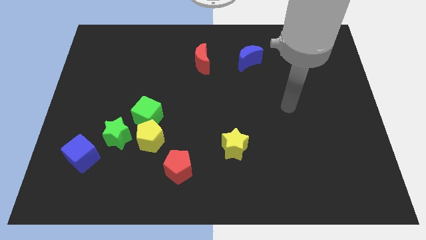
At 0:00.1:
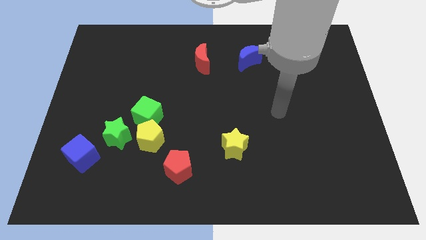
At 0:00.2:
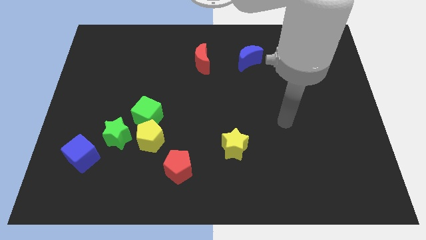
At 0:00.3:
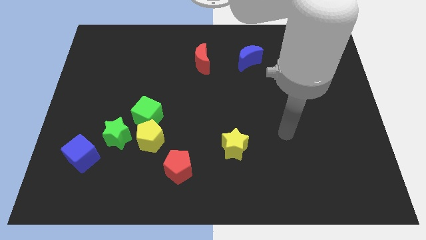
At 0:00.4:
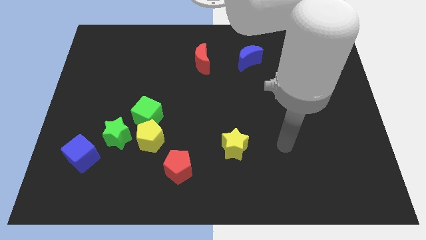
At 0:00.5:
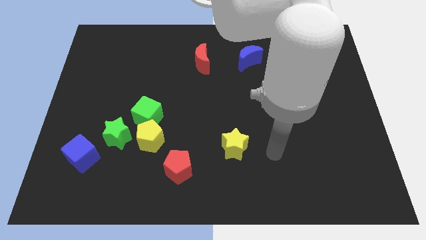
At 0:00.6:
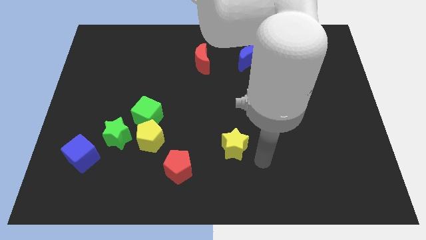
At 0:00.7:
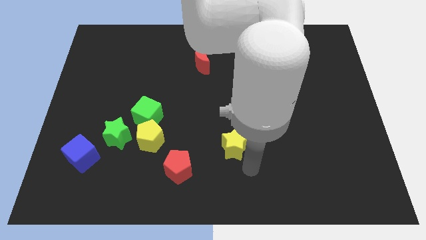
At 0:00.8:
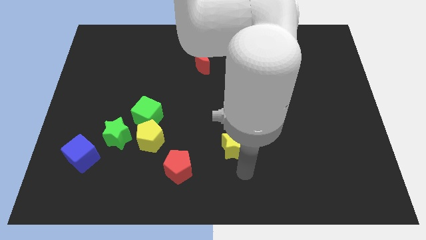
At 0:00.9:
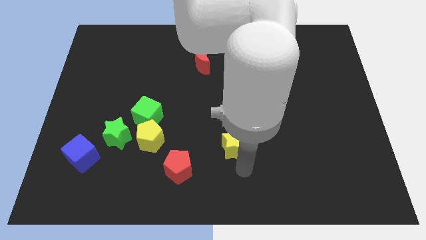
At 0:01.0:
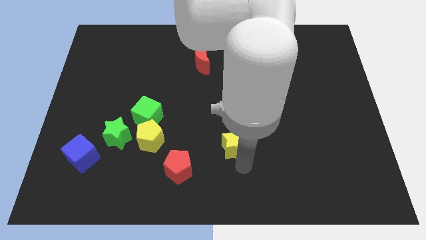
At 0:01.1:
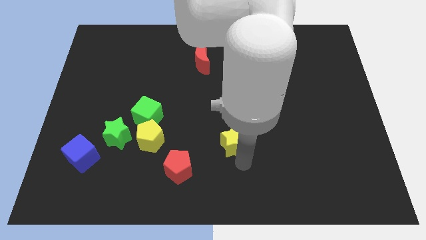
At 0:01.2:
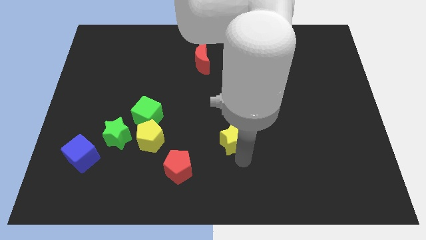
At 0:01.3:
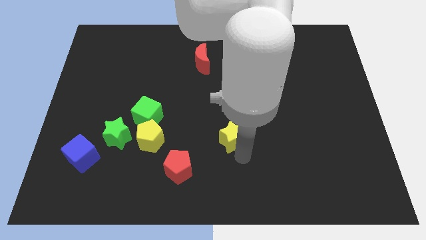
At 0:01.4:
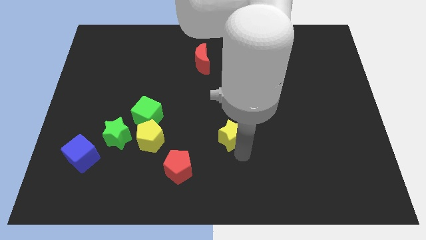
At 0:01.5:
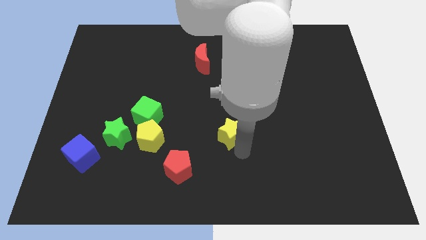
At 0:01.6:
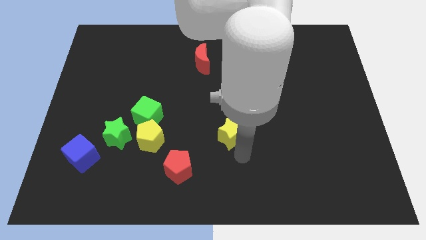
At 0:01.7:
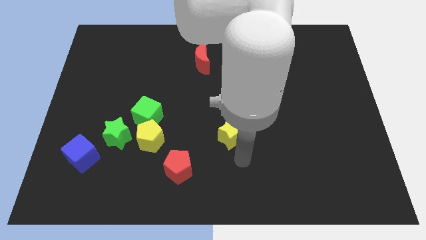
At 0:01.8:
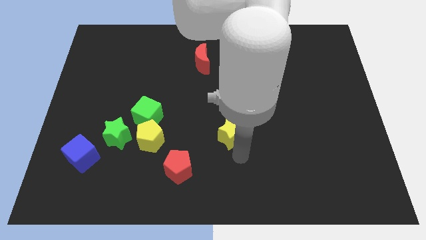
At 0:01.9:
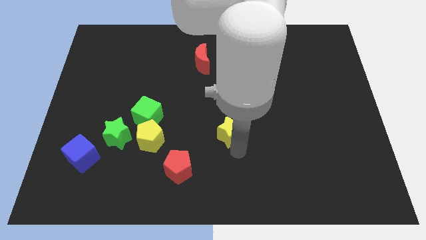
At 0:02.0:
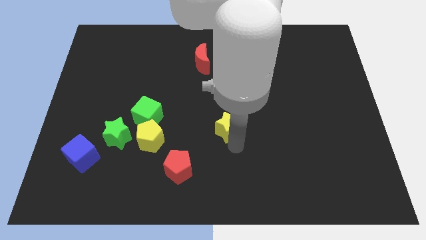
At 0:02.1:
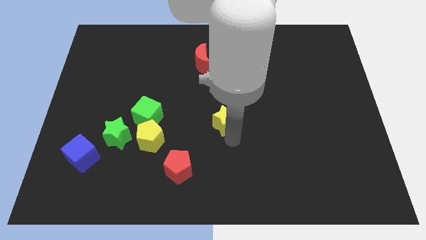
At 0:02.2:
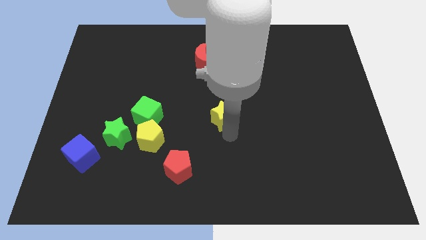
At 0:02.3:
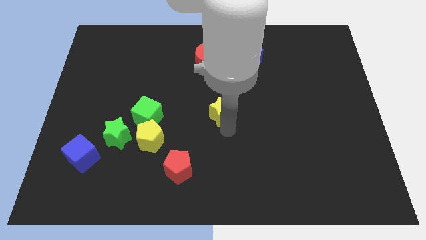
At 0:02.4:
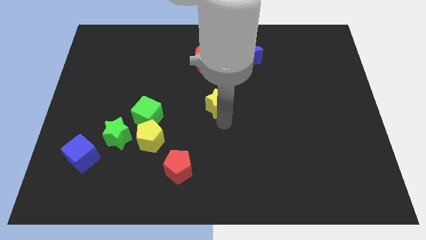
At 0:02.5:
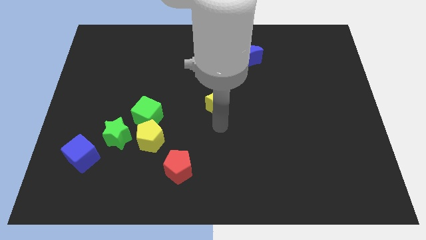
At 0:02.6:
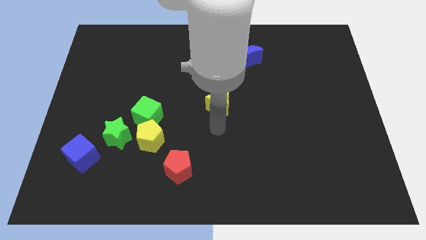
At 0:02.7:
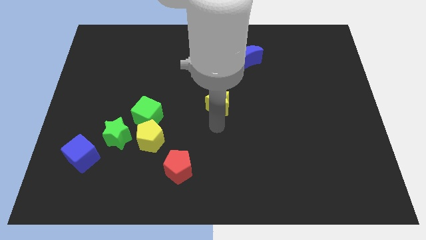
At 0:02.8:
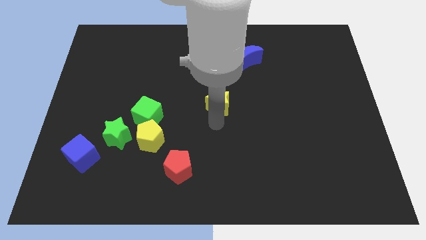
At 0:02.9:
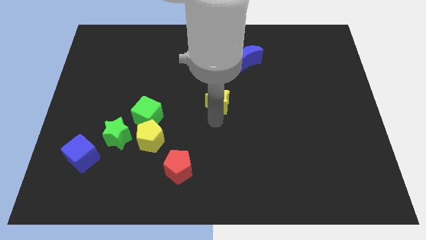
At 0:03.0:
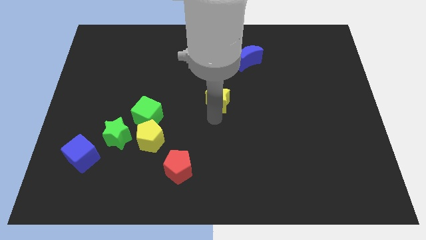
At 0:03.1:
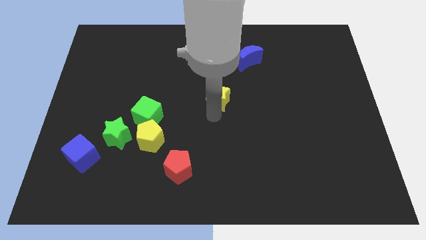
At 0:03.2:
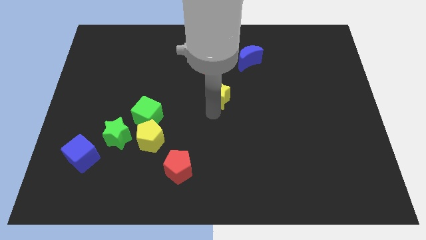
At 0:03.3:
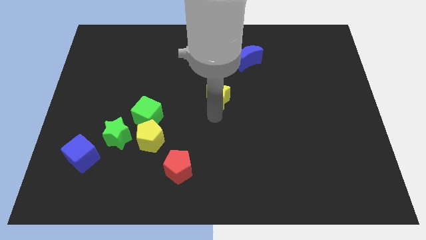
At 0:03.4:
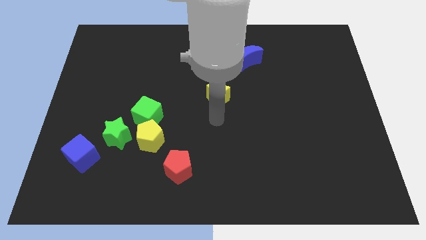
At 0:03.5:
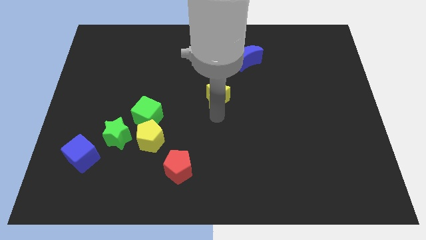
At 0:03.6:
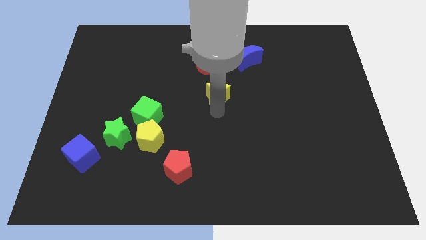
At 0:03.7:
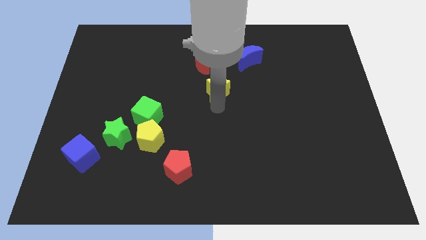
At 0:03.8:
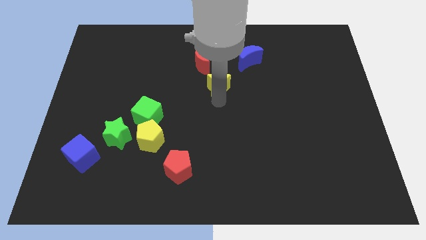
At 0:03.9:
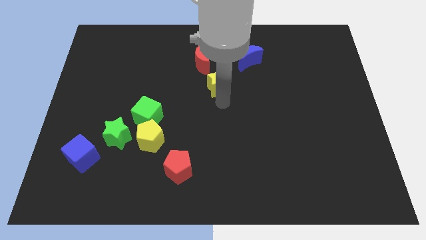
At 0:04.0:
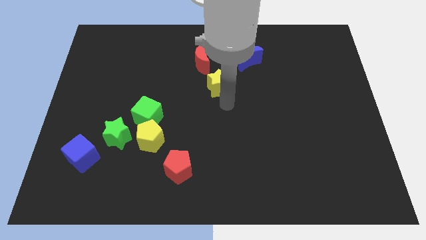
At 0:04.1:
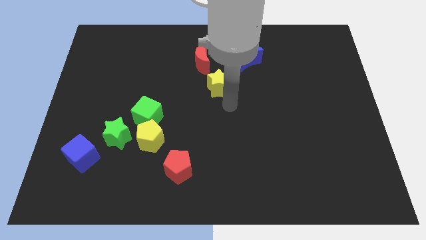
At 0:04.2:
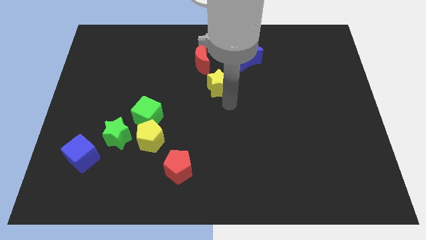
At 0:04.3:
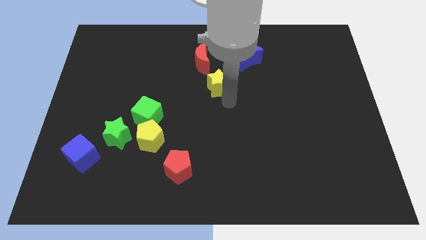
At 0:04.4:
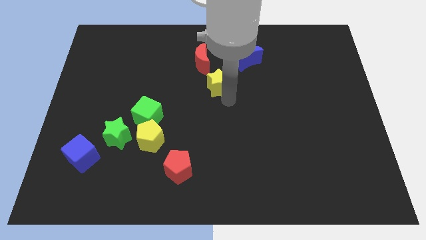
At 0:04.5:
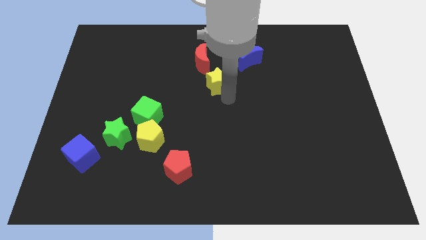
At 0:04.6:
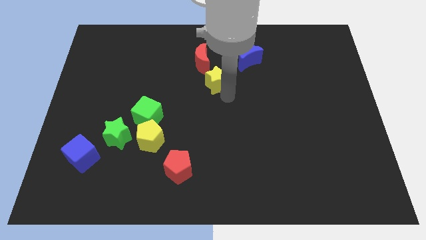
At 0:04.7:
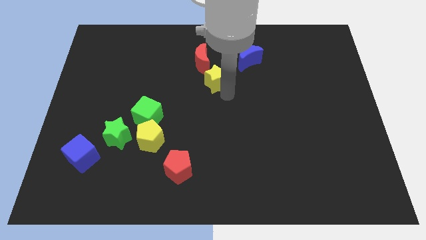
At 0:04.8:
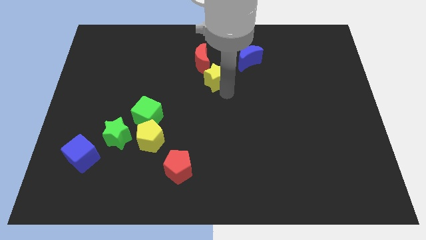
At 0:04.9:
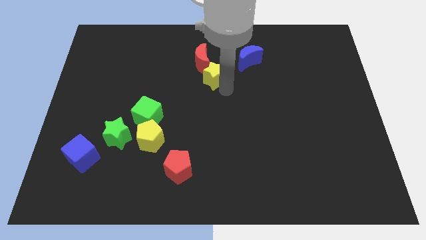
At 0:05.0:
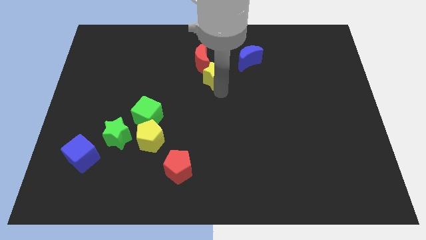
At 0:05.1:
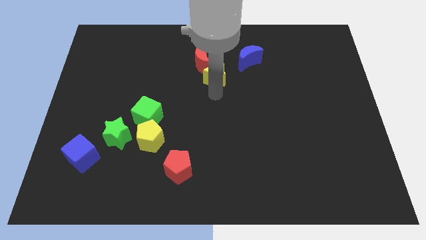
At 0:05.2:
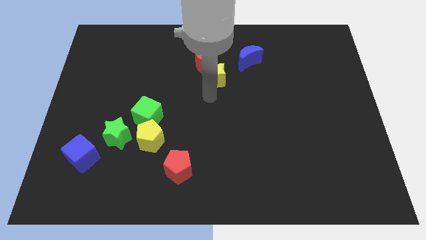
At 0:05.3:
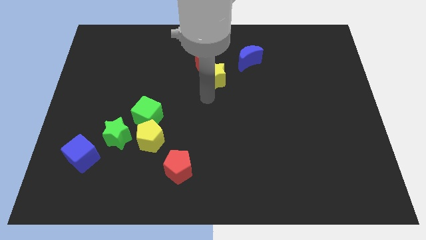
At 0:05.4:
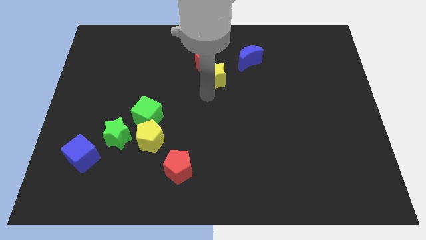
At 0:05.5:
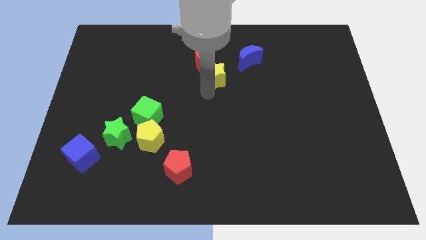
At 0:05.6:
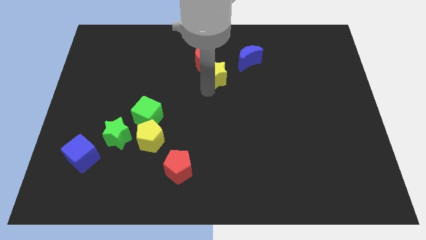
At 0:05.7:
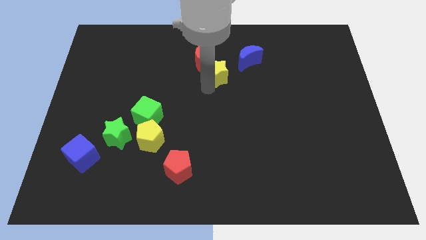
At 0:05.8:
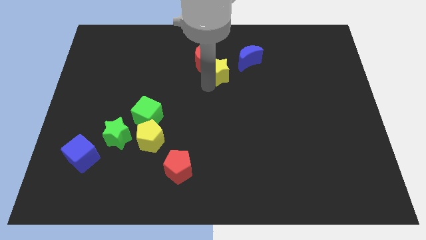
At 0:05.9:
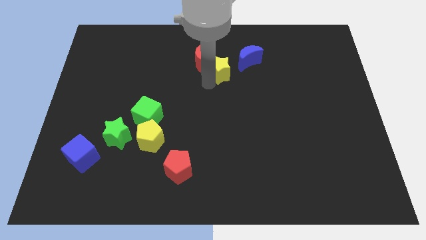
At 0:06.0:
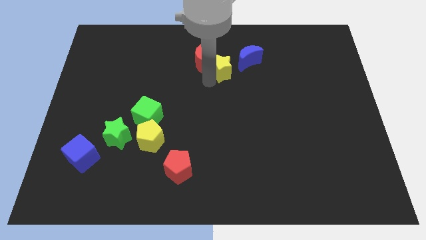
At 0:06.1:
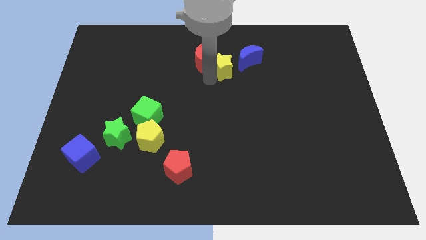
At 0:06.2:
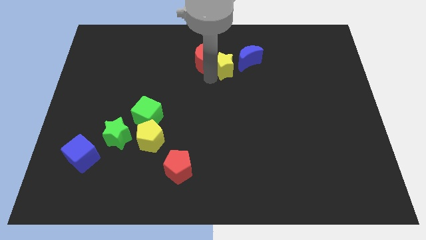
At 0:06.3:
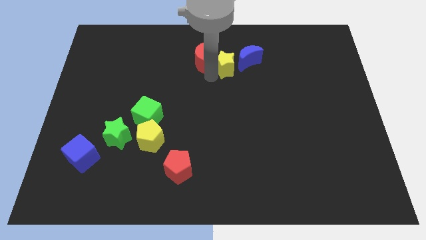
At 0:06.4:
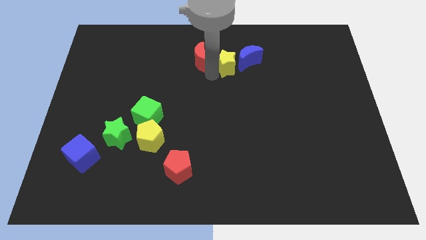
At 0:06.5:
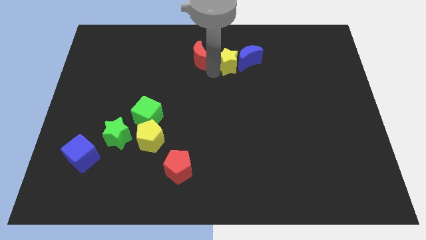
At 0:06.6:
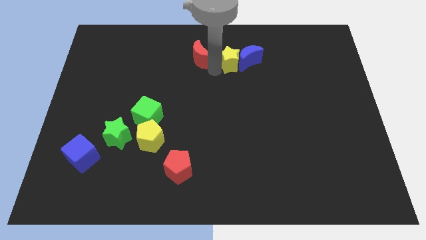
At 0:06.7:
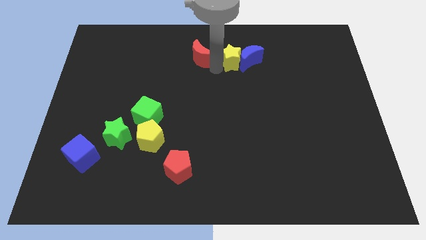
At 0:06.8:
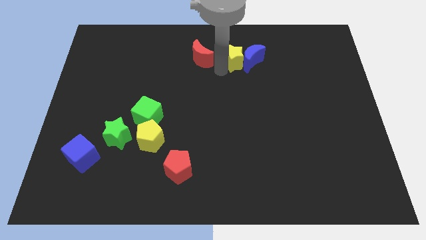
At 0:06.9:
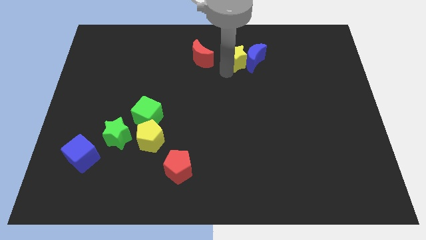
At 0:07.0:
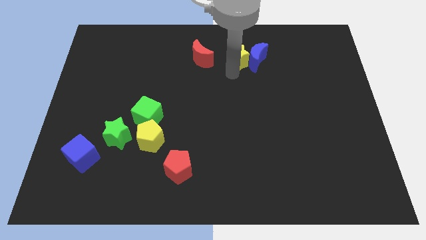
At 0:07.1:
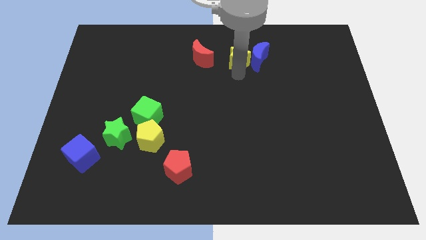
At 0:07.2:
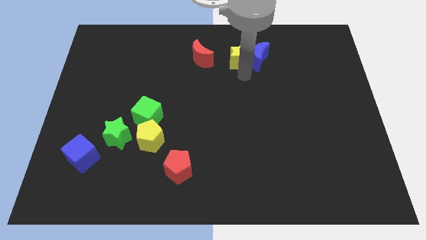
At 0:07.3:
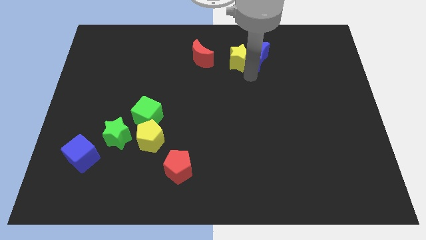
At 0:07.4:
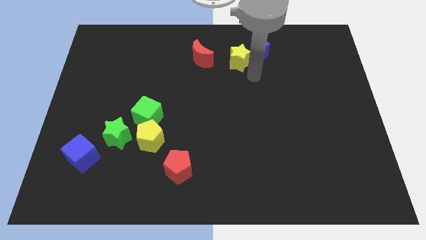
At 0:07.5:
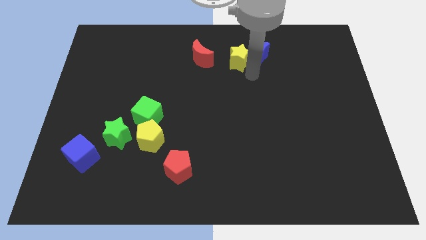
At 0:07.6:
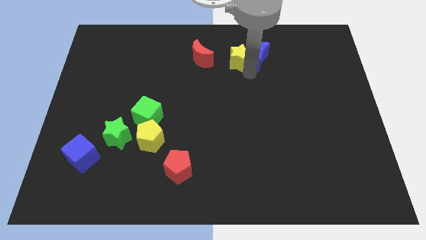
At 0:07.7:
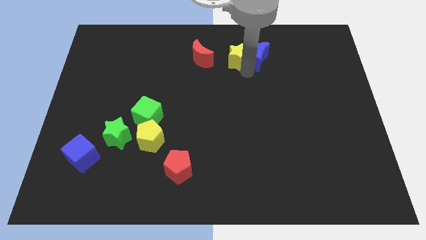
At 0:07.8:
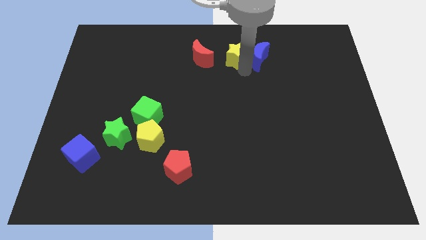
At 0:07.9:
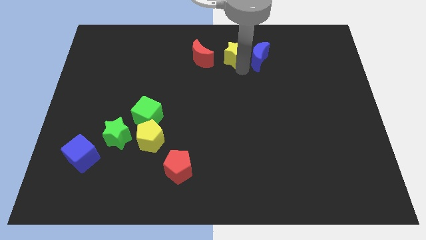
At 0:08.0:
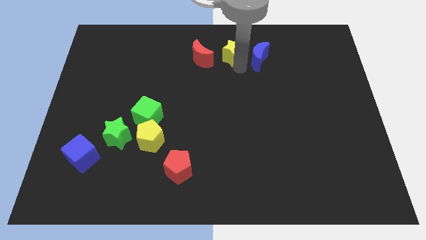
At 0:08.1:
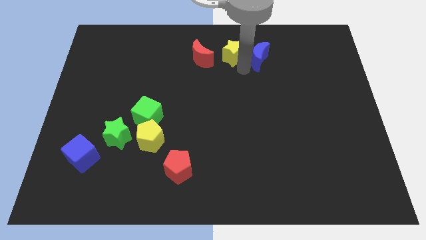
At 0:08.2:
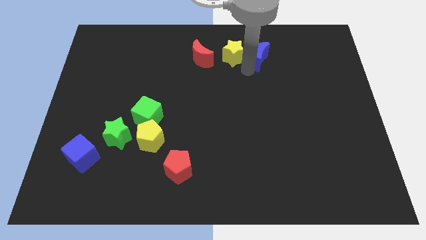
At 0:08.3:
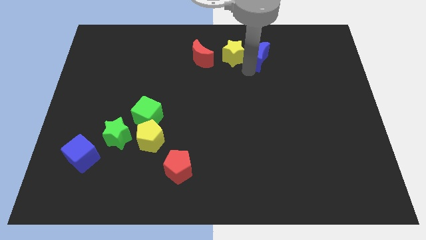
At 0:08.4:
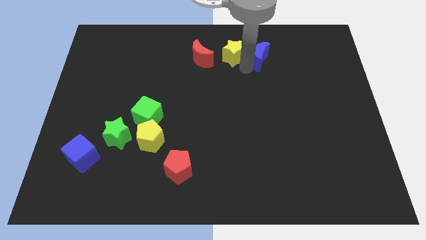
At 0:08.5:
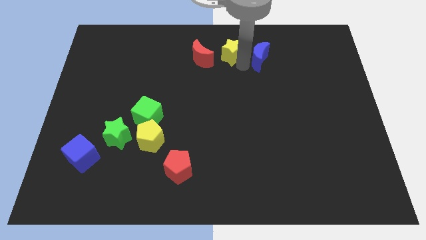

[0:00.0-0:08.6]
slide the yellow star to the towards your base
